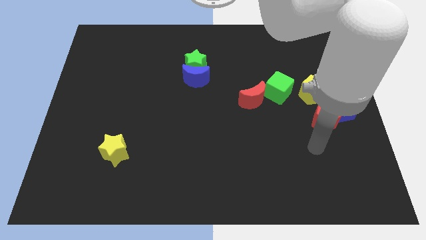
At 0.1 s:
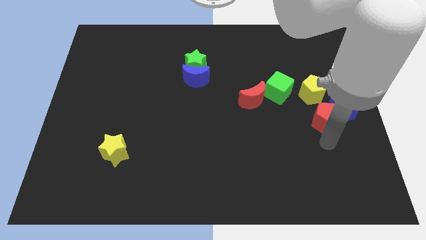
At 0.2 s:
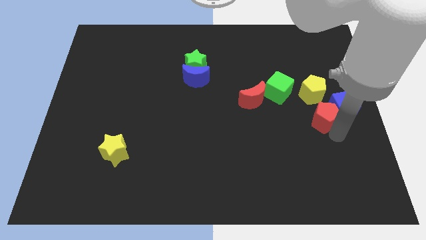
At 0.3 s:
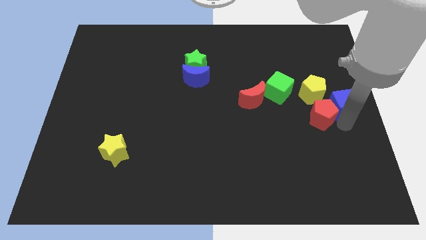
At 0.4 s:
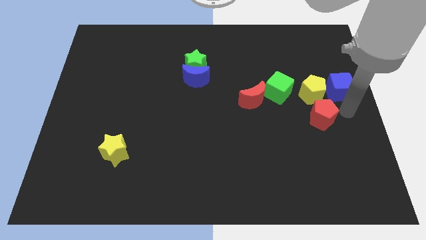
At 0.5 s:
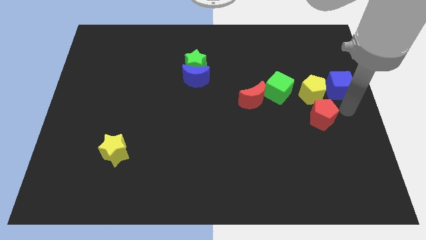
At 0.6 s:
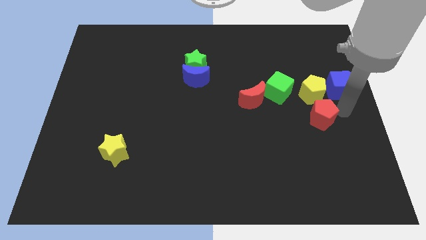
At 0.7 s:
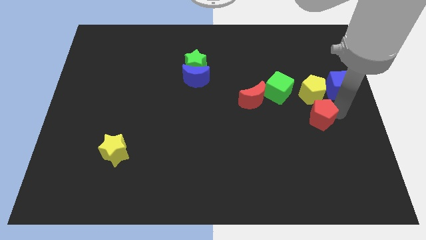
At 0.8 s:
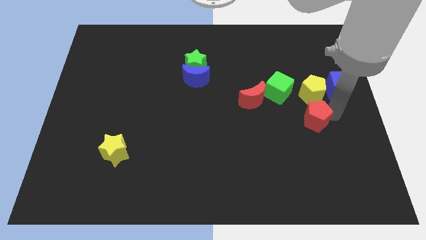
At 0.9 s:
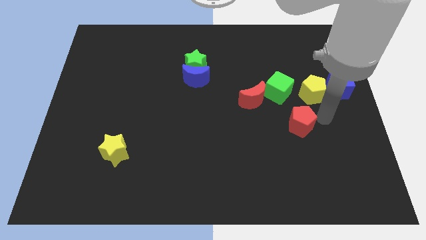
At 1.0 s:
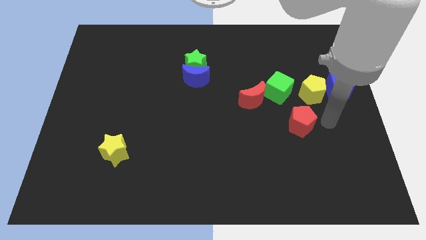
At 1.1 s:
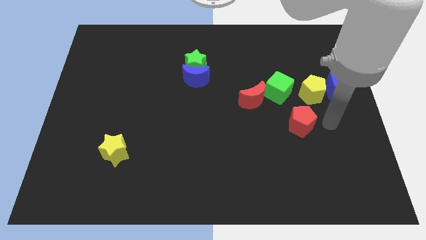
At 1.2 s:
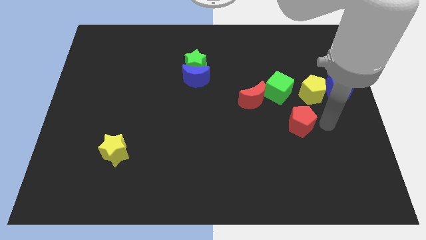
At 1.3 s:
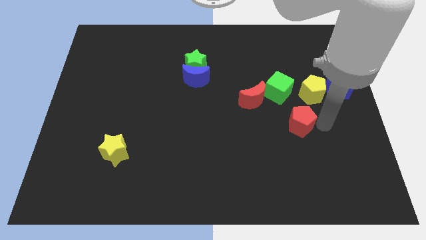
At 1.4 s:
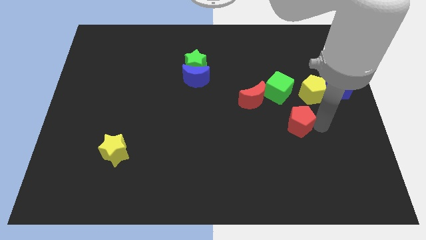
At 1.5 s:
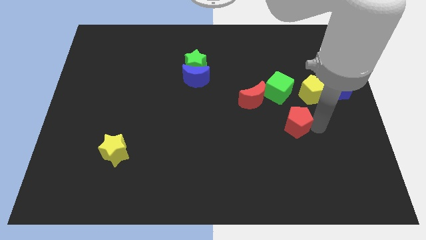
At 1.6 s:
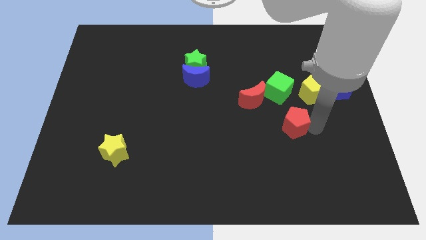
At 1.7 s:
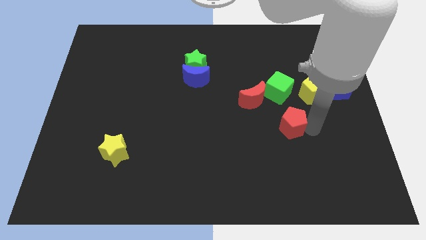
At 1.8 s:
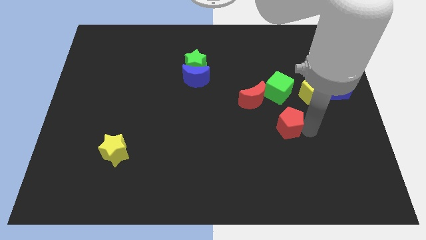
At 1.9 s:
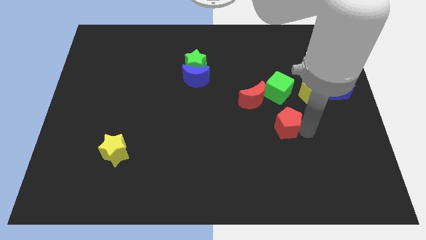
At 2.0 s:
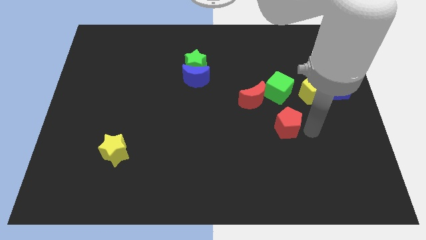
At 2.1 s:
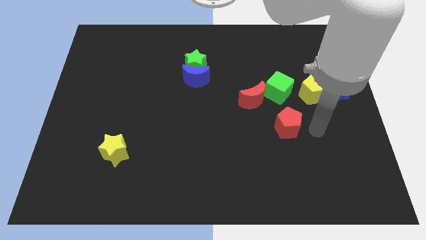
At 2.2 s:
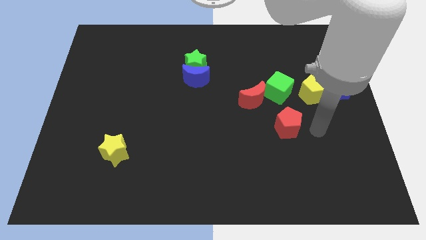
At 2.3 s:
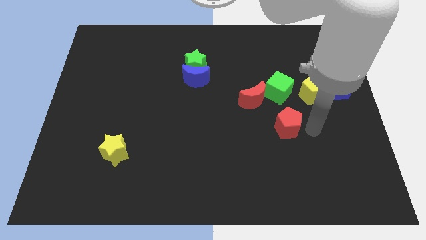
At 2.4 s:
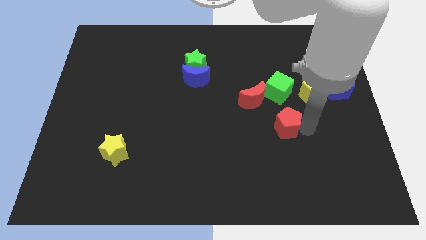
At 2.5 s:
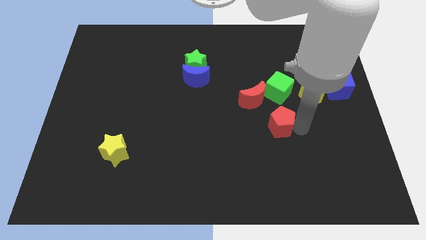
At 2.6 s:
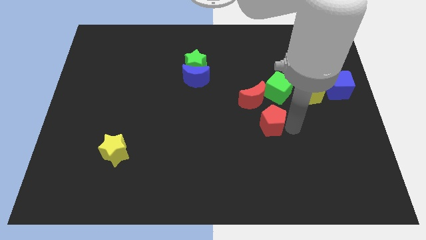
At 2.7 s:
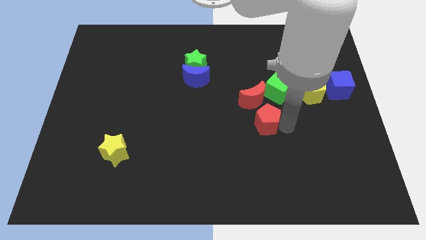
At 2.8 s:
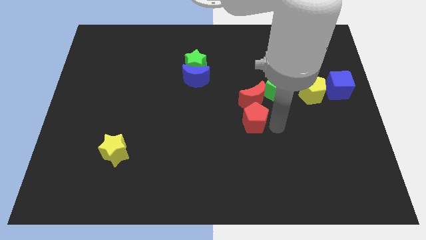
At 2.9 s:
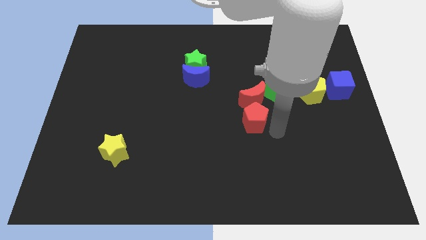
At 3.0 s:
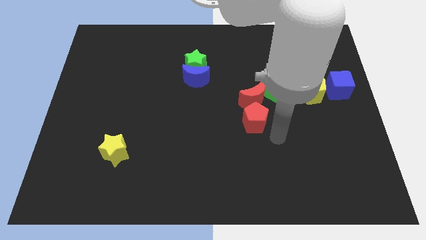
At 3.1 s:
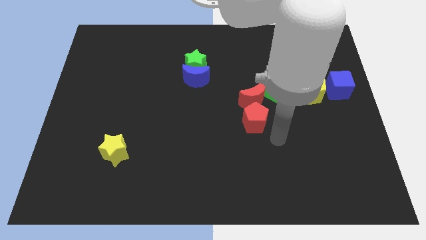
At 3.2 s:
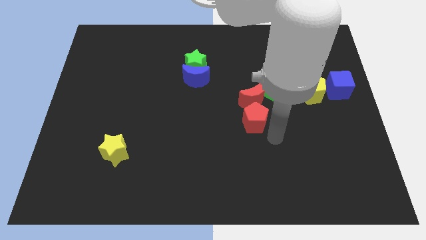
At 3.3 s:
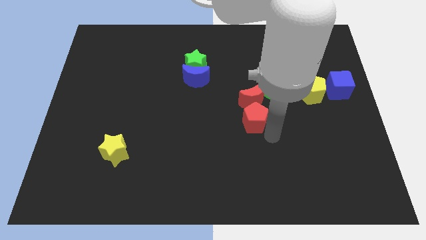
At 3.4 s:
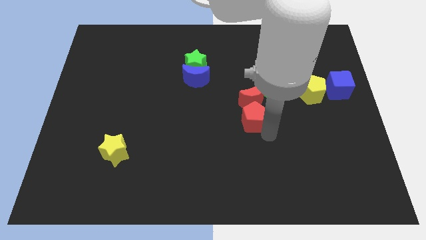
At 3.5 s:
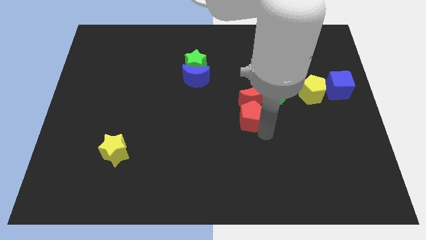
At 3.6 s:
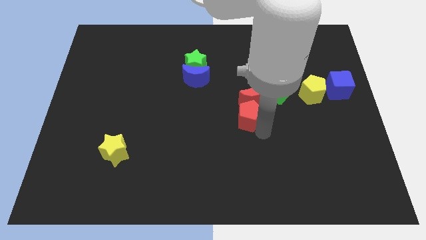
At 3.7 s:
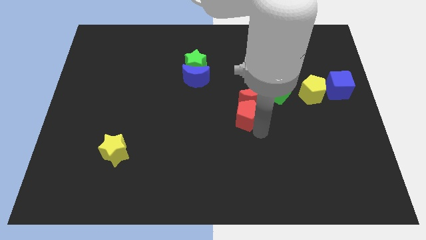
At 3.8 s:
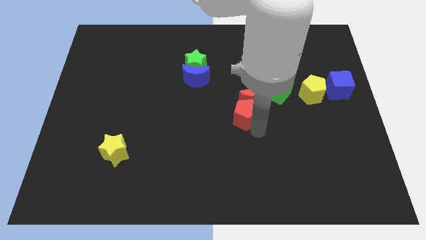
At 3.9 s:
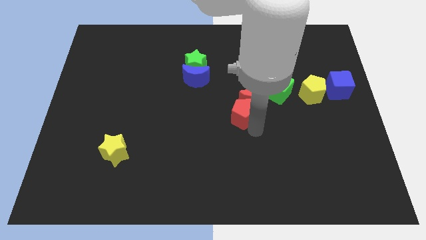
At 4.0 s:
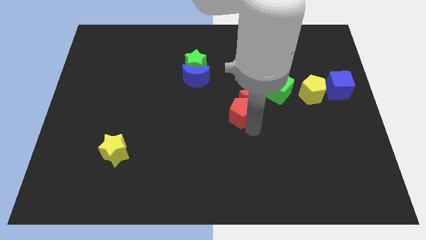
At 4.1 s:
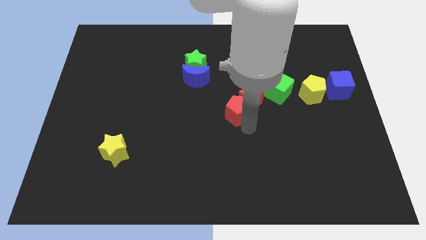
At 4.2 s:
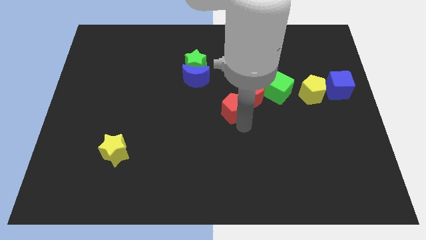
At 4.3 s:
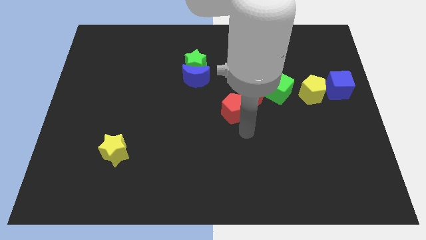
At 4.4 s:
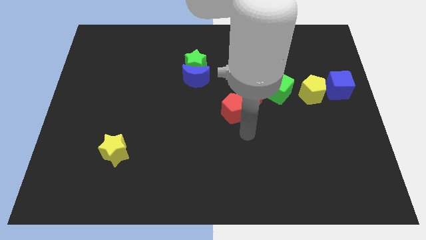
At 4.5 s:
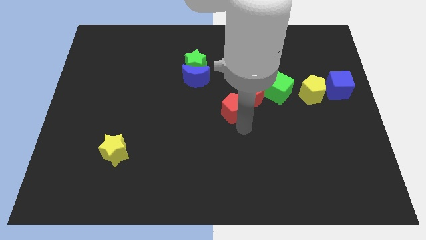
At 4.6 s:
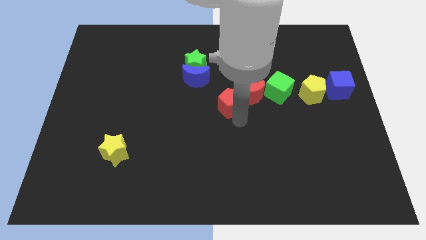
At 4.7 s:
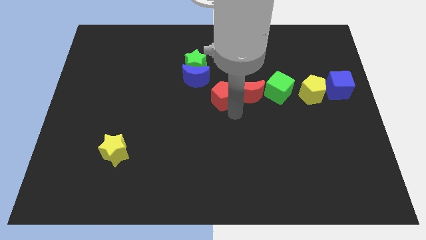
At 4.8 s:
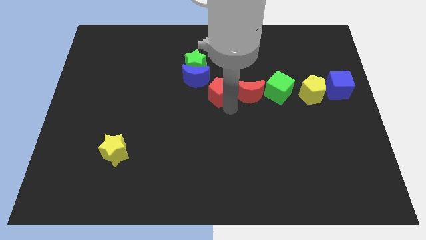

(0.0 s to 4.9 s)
move the red pentagon diagonally down and to the right of the green star

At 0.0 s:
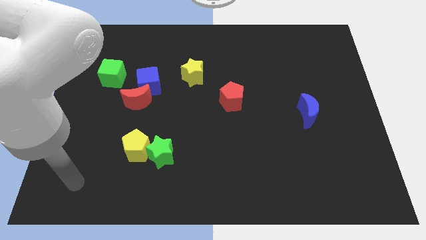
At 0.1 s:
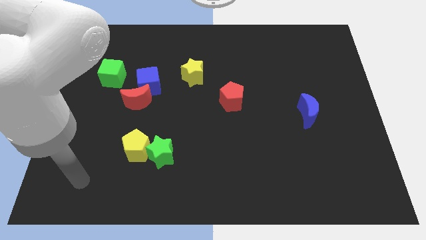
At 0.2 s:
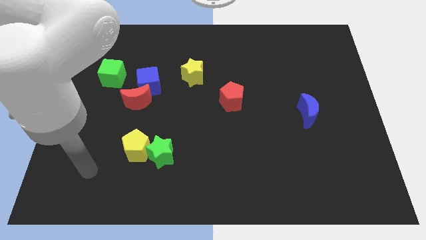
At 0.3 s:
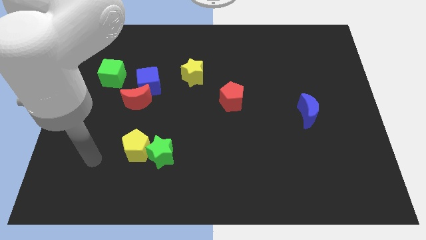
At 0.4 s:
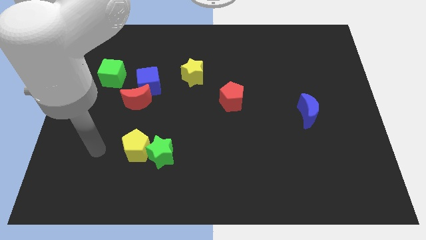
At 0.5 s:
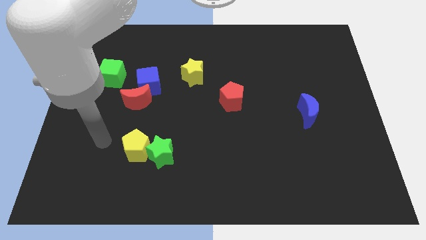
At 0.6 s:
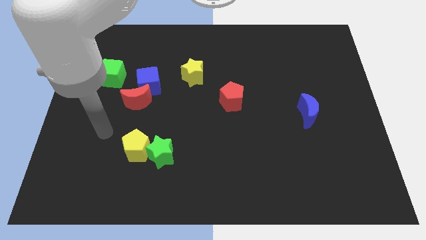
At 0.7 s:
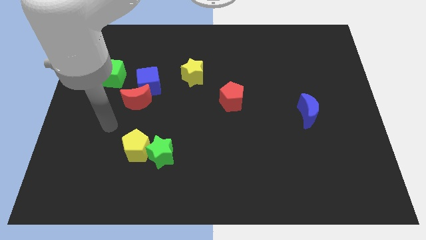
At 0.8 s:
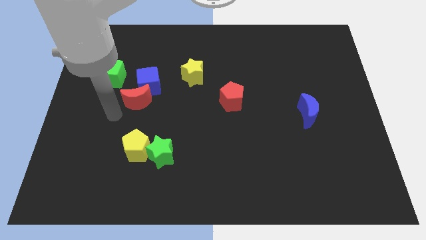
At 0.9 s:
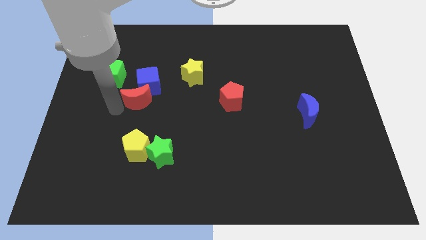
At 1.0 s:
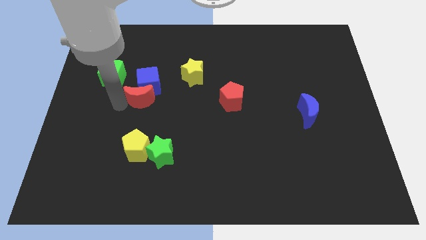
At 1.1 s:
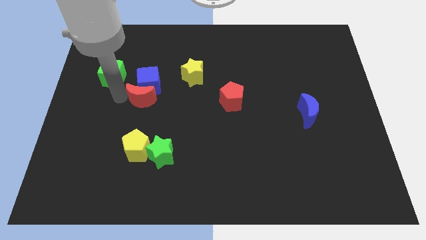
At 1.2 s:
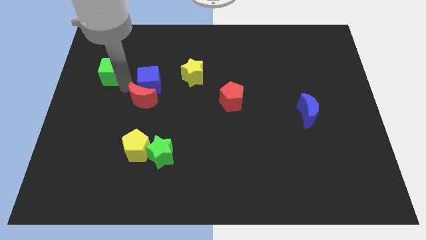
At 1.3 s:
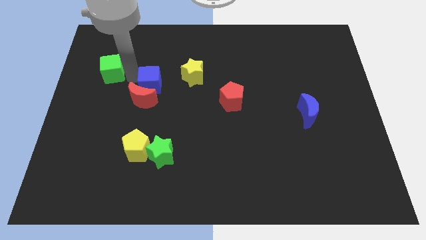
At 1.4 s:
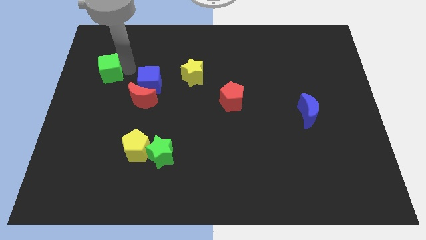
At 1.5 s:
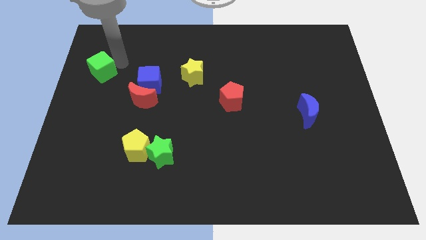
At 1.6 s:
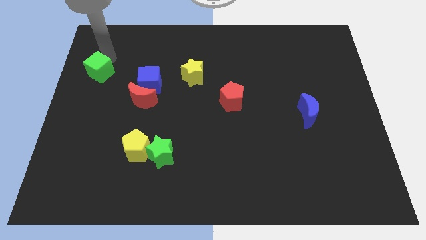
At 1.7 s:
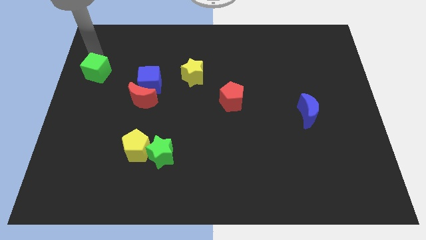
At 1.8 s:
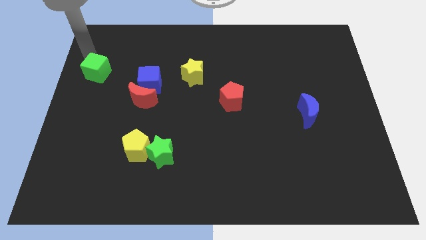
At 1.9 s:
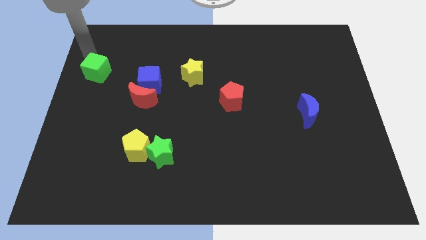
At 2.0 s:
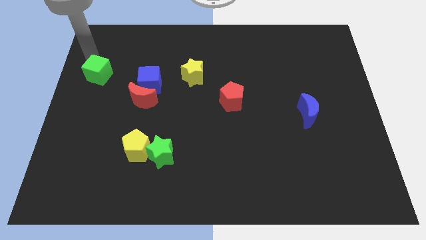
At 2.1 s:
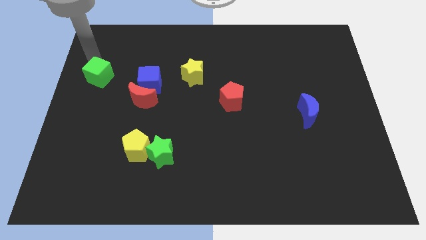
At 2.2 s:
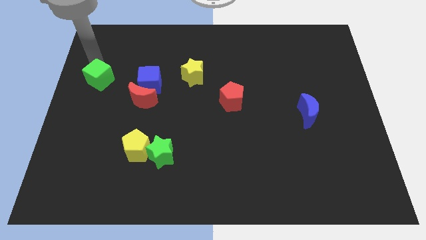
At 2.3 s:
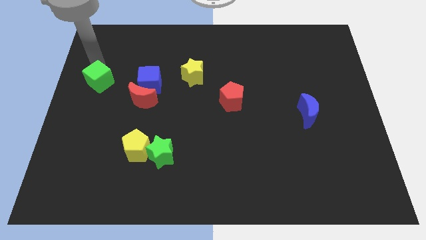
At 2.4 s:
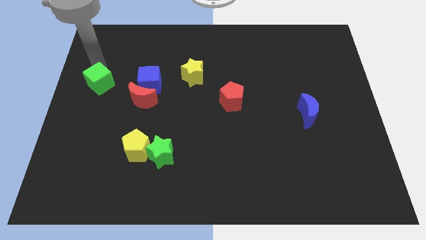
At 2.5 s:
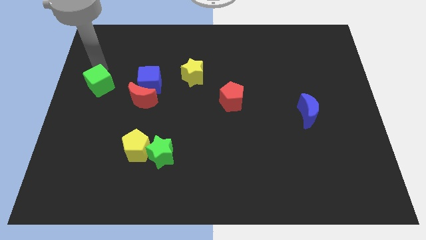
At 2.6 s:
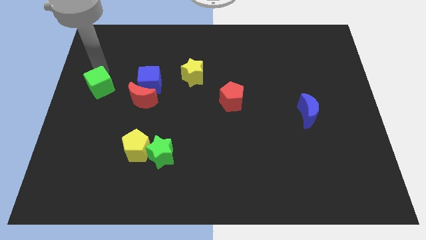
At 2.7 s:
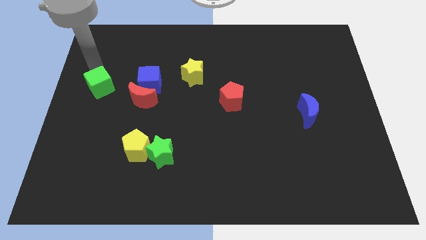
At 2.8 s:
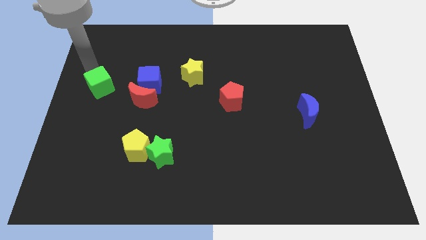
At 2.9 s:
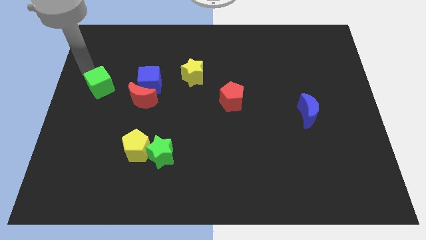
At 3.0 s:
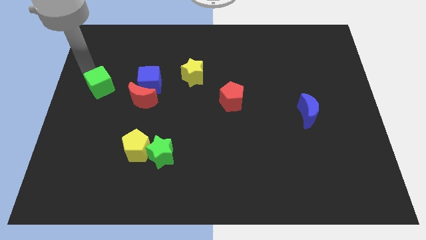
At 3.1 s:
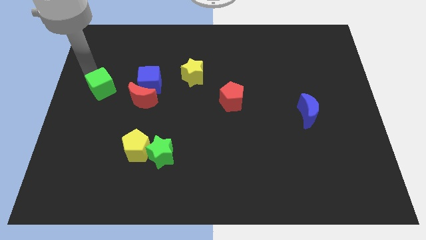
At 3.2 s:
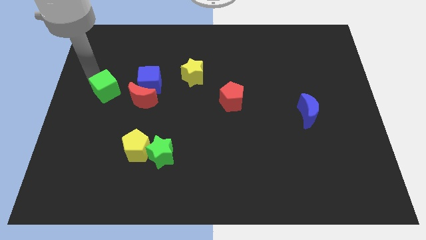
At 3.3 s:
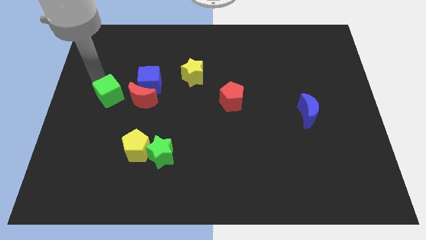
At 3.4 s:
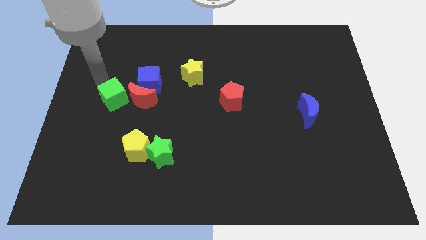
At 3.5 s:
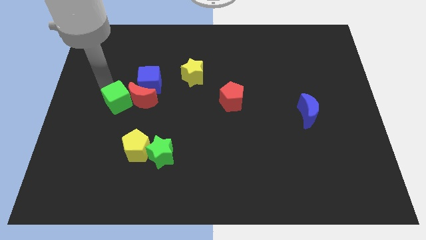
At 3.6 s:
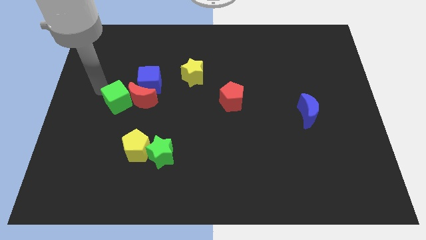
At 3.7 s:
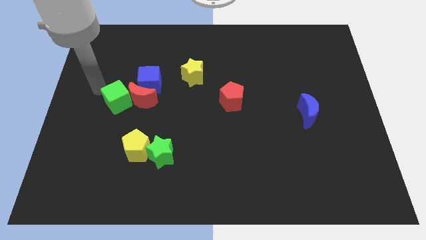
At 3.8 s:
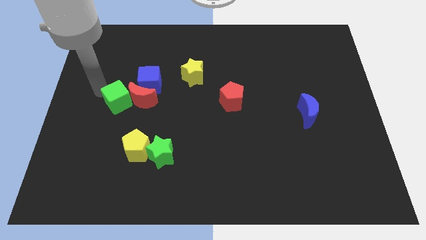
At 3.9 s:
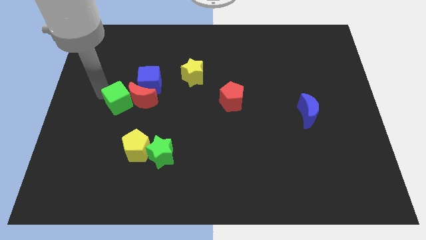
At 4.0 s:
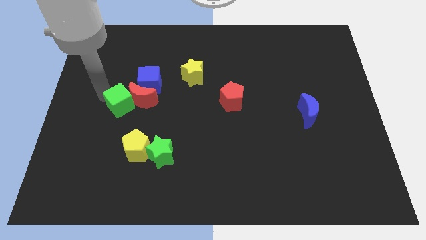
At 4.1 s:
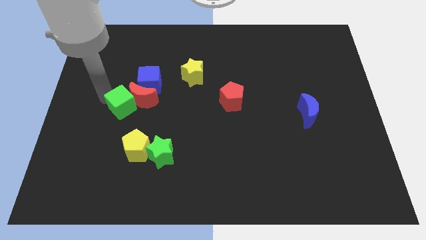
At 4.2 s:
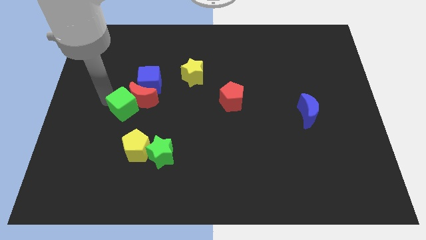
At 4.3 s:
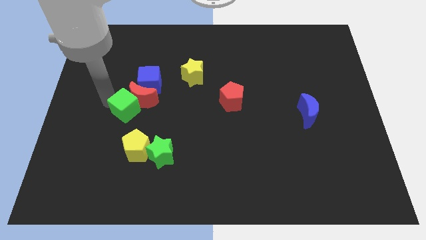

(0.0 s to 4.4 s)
slide the green cube to the bottom side of the blue cube
